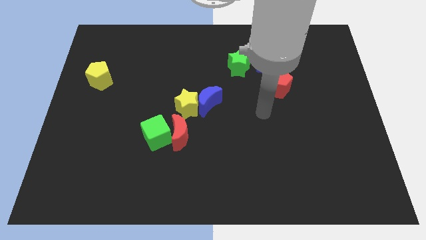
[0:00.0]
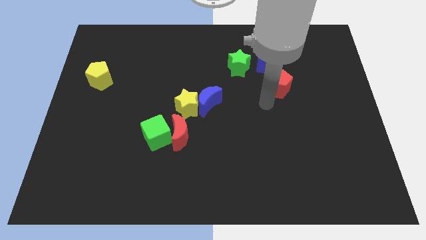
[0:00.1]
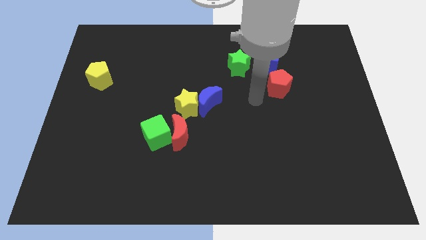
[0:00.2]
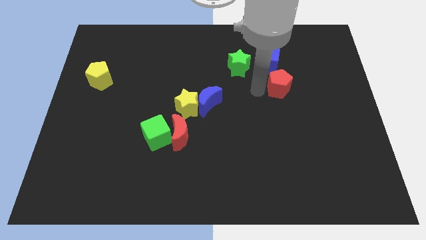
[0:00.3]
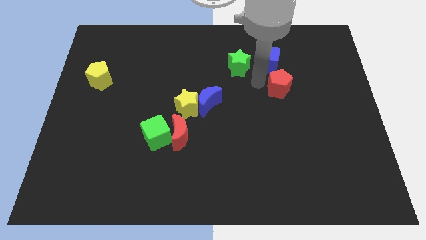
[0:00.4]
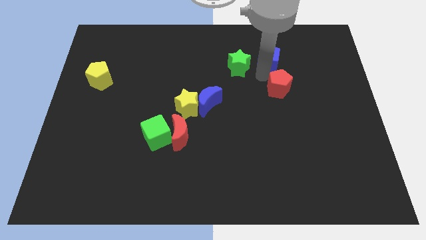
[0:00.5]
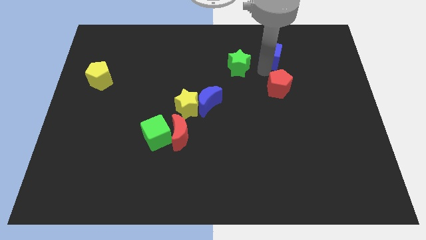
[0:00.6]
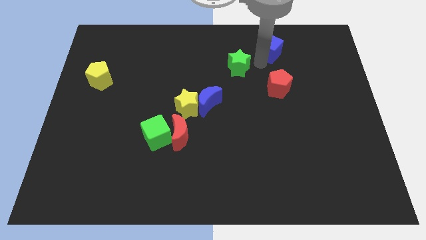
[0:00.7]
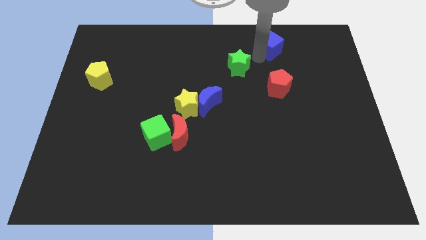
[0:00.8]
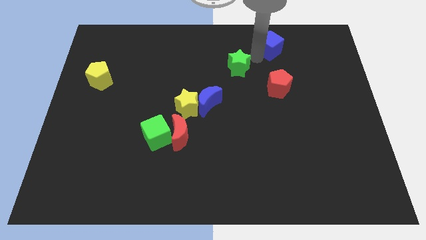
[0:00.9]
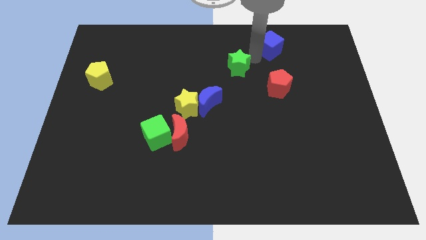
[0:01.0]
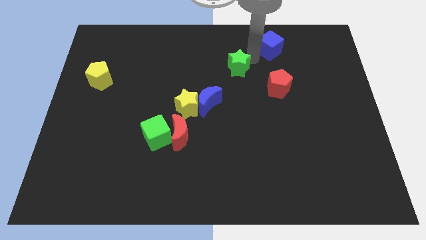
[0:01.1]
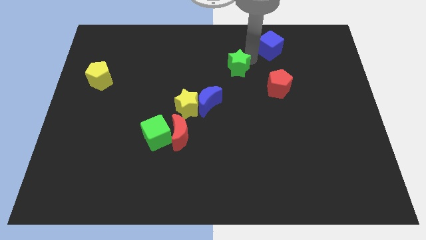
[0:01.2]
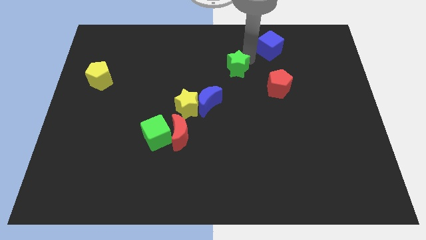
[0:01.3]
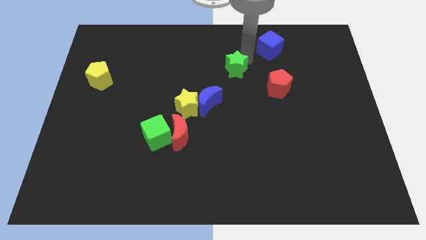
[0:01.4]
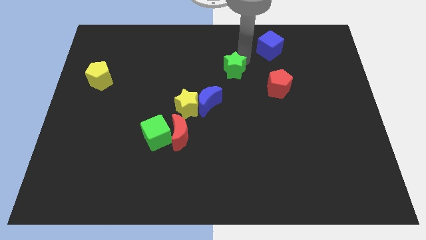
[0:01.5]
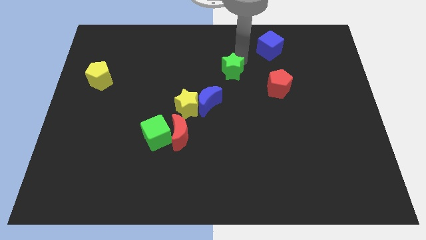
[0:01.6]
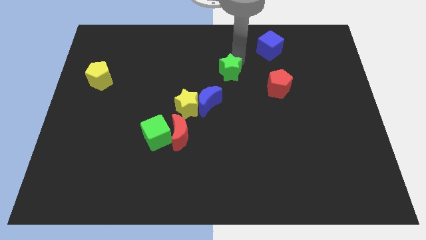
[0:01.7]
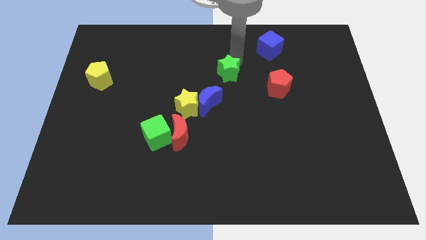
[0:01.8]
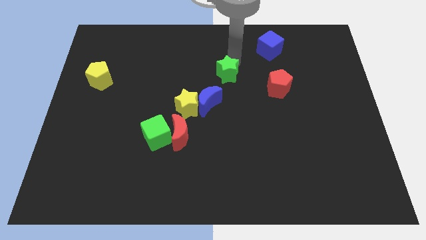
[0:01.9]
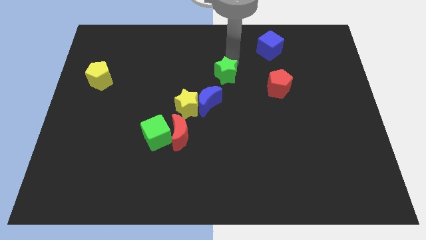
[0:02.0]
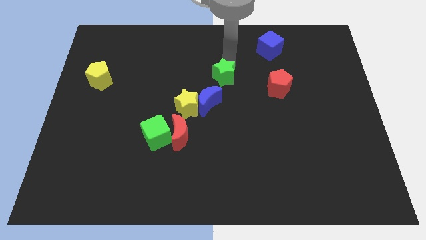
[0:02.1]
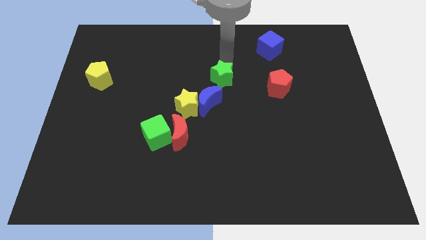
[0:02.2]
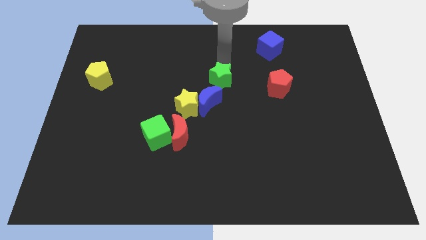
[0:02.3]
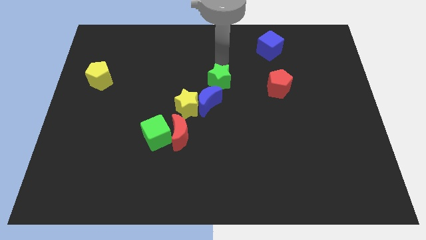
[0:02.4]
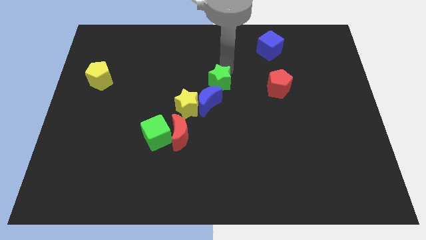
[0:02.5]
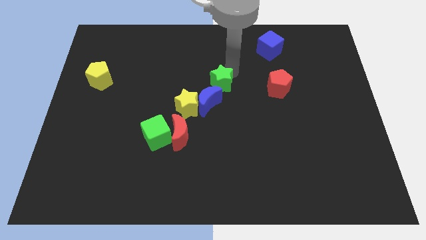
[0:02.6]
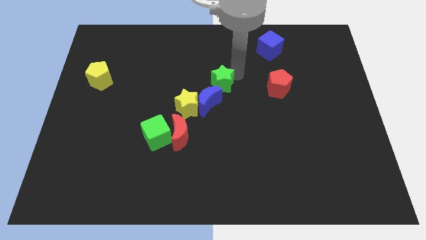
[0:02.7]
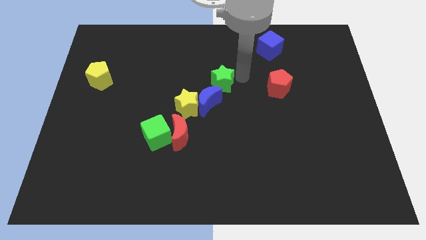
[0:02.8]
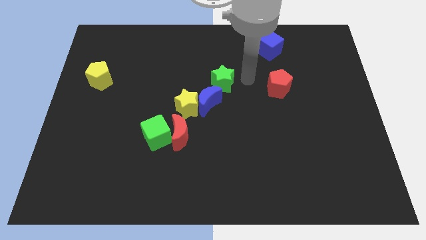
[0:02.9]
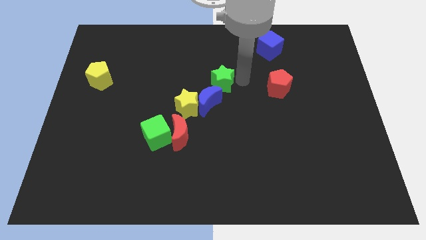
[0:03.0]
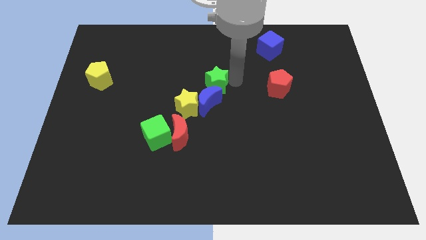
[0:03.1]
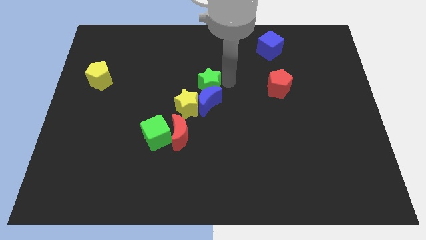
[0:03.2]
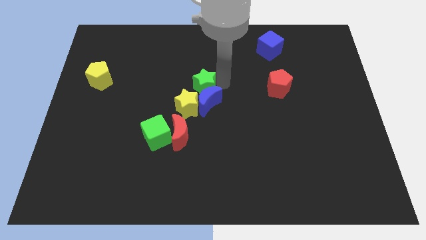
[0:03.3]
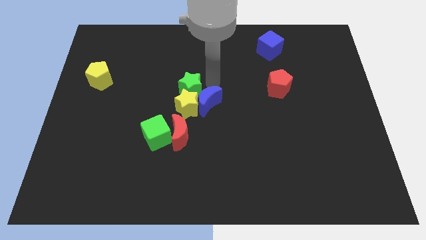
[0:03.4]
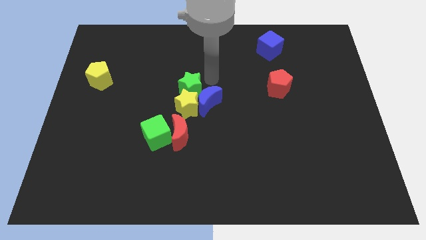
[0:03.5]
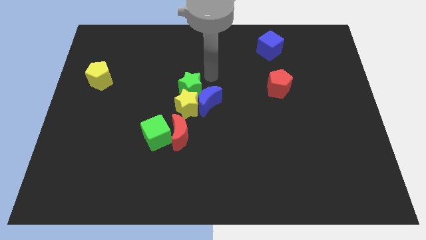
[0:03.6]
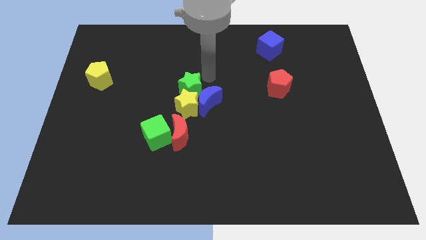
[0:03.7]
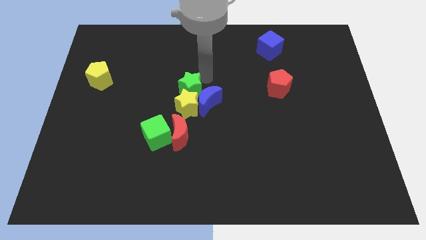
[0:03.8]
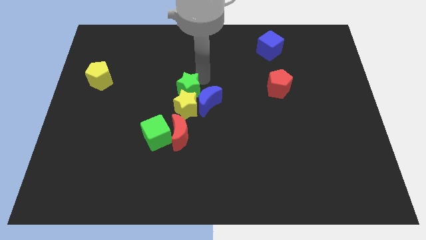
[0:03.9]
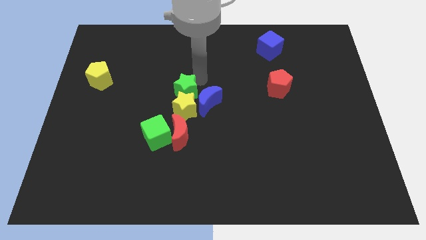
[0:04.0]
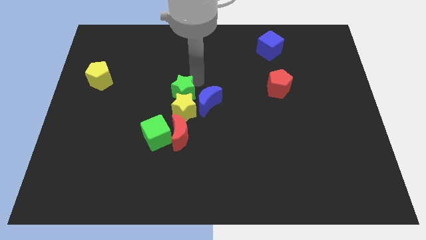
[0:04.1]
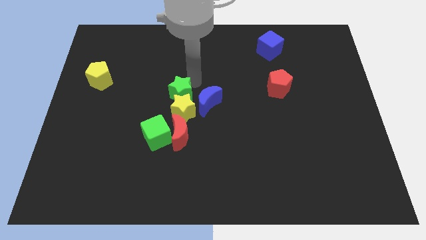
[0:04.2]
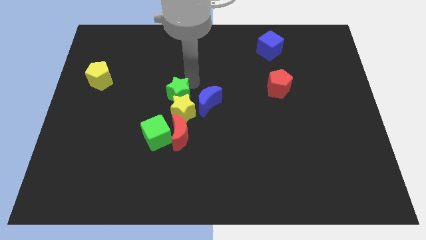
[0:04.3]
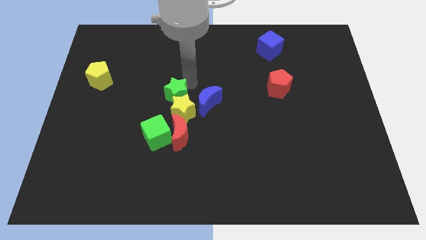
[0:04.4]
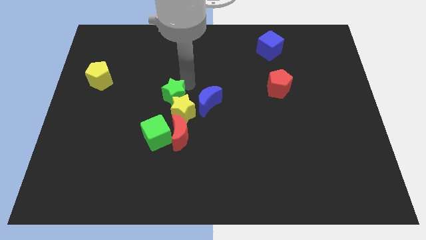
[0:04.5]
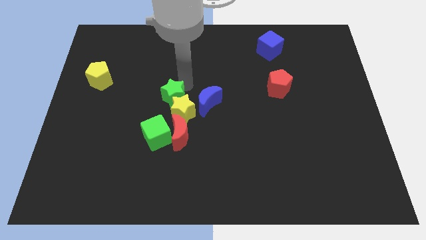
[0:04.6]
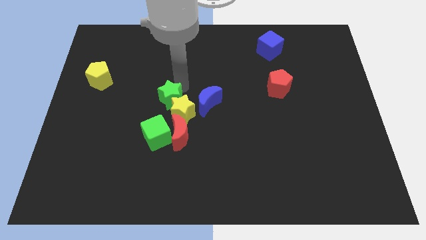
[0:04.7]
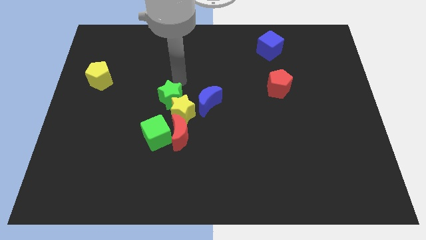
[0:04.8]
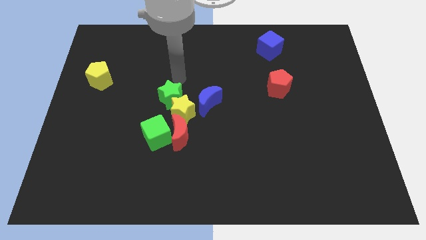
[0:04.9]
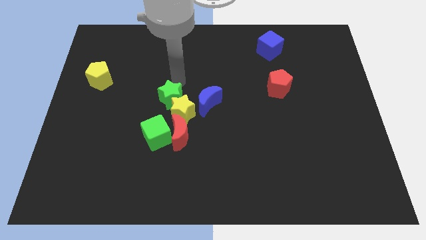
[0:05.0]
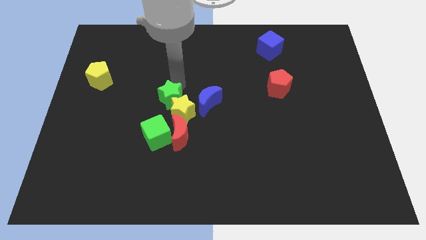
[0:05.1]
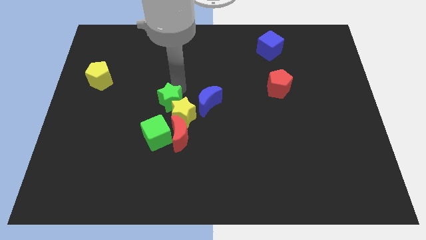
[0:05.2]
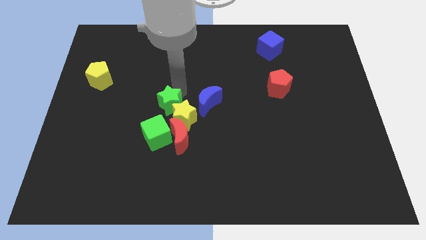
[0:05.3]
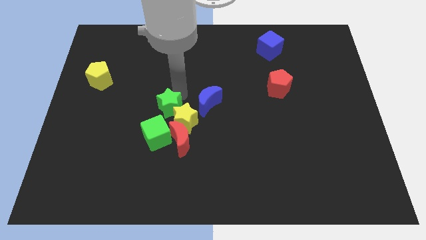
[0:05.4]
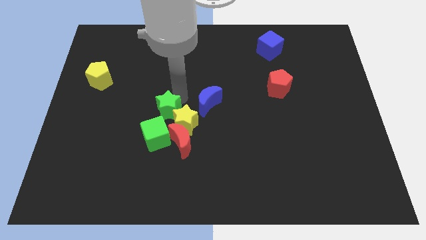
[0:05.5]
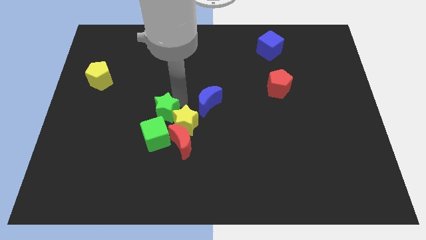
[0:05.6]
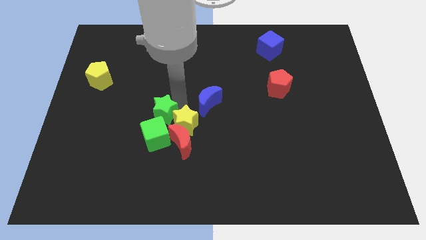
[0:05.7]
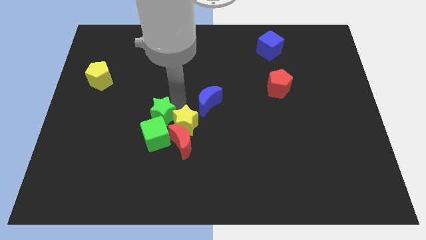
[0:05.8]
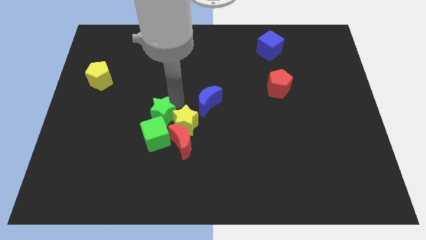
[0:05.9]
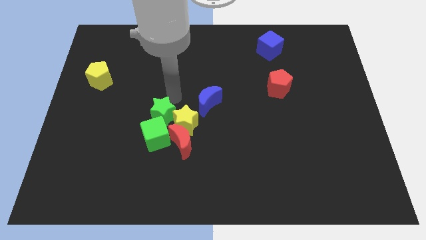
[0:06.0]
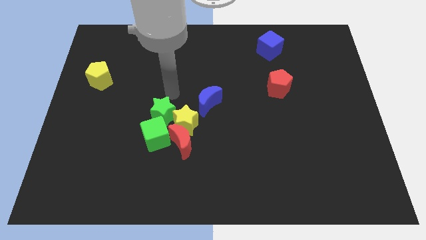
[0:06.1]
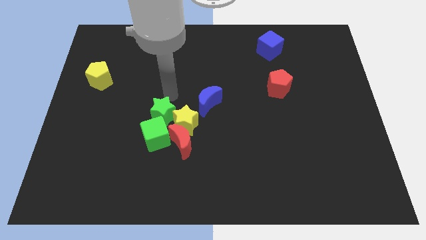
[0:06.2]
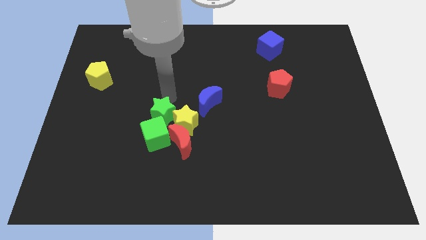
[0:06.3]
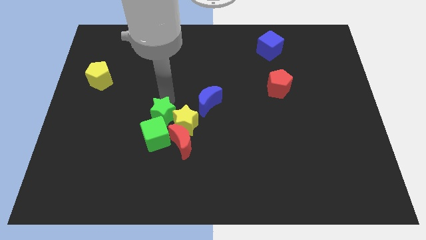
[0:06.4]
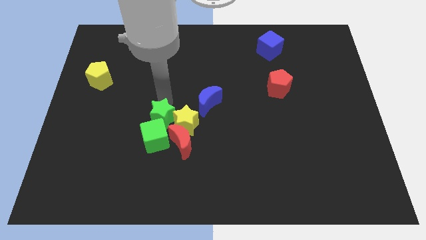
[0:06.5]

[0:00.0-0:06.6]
put the green star to the green cube

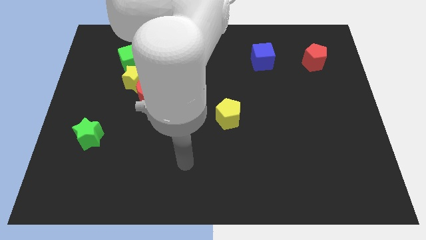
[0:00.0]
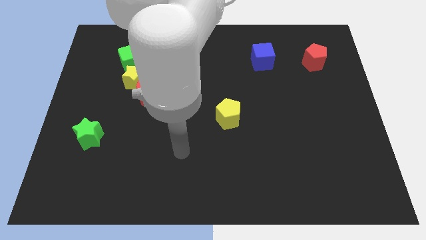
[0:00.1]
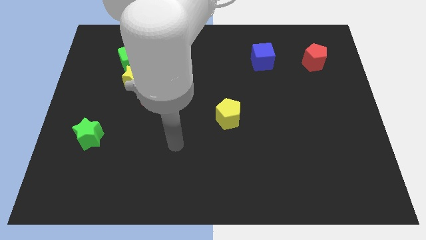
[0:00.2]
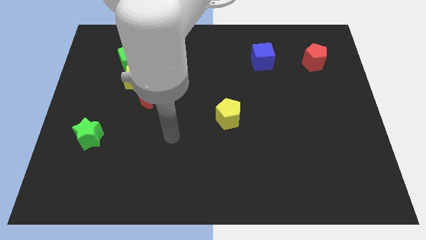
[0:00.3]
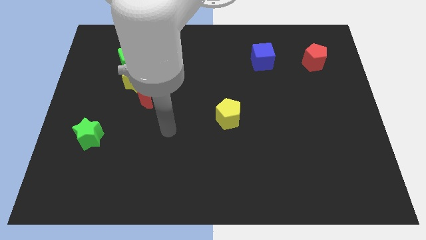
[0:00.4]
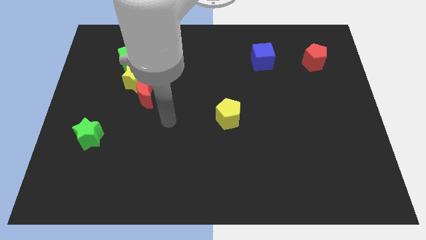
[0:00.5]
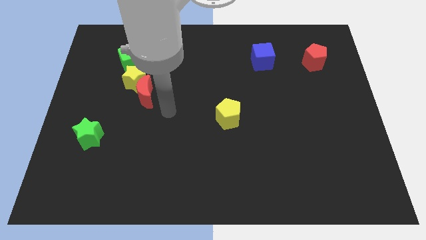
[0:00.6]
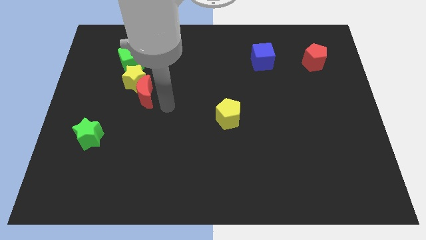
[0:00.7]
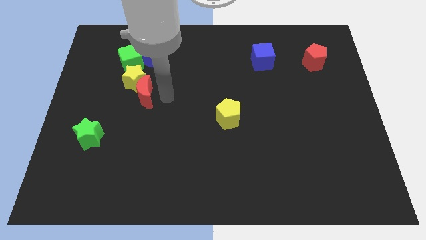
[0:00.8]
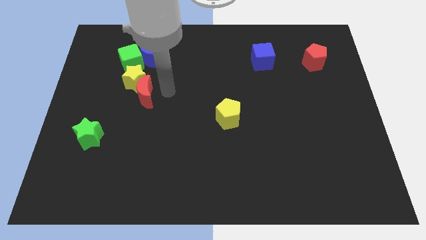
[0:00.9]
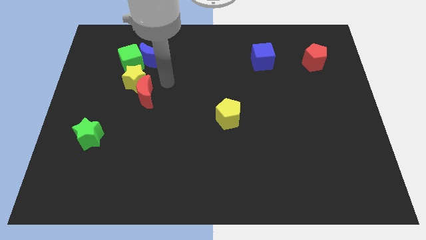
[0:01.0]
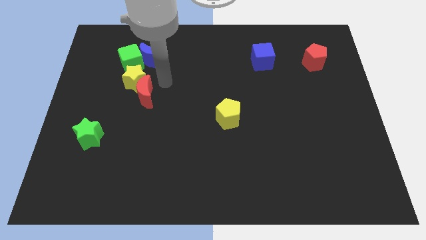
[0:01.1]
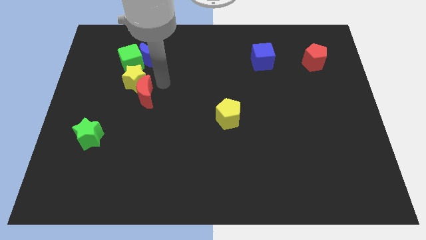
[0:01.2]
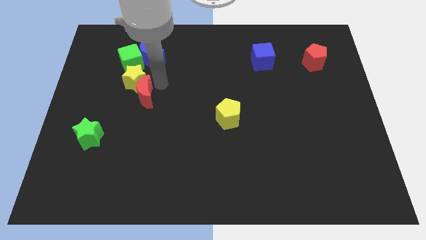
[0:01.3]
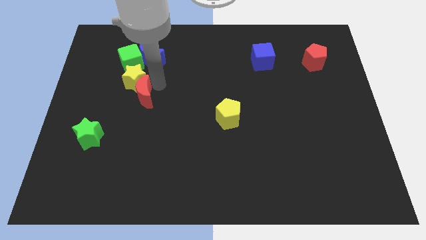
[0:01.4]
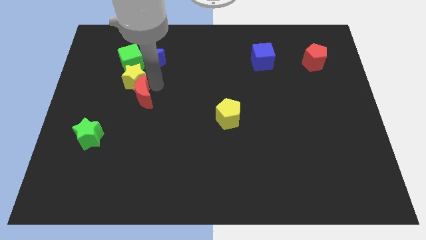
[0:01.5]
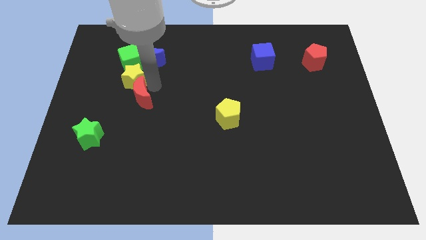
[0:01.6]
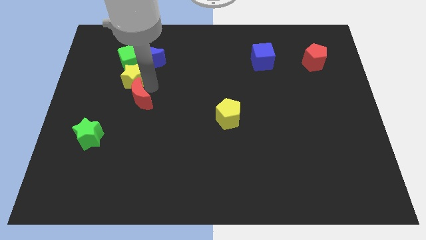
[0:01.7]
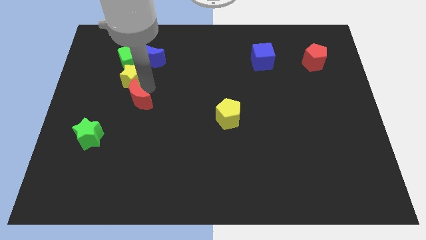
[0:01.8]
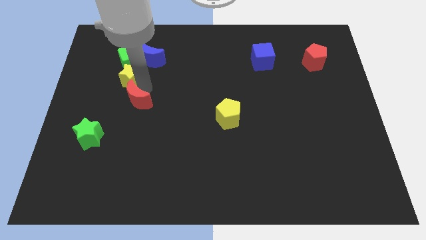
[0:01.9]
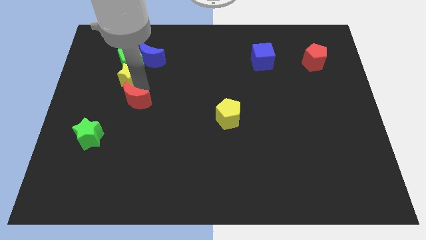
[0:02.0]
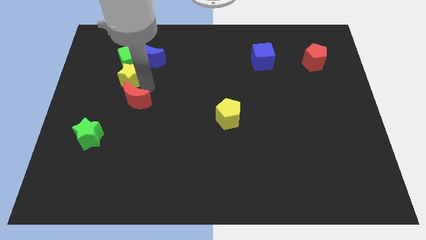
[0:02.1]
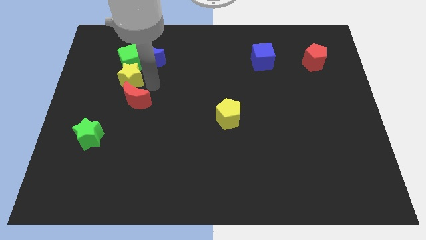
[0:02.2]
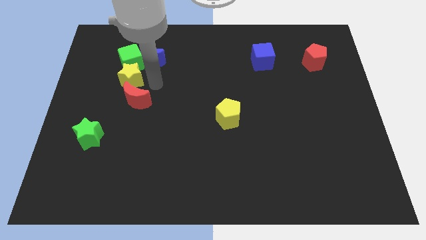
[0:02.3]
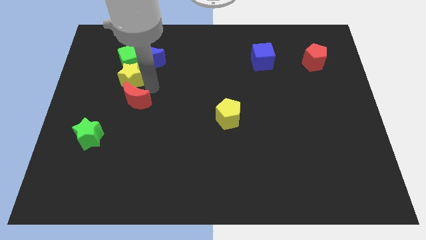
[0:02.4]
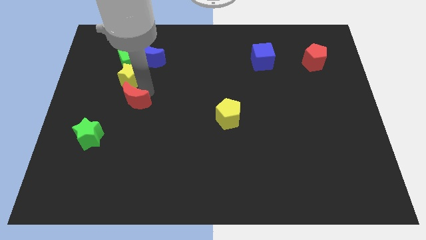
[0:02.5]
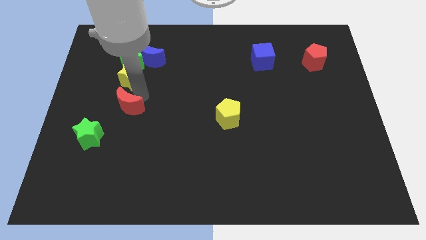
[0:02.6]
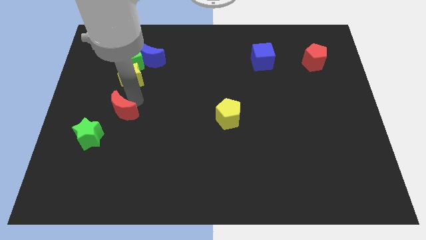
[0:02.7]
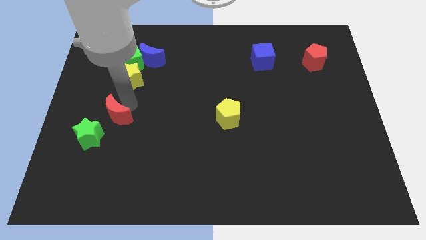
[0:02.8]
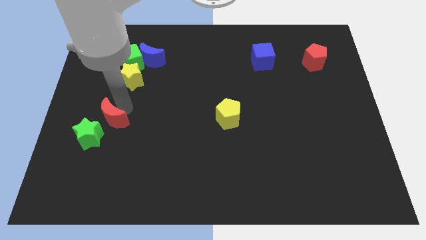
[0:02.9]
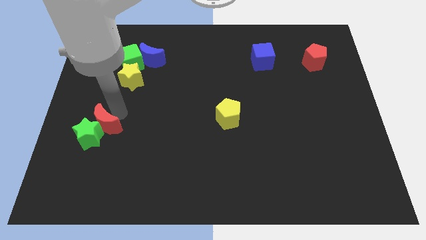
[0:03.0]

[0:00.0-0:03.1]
slide the red moon towards the green star
